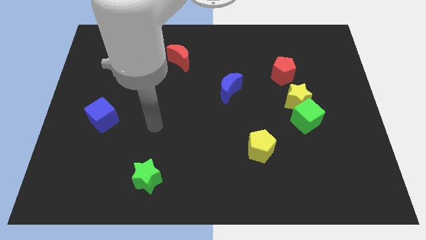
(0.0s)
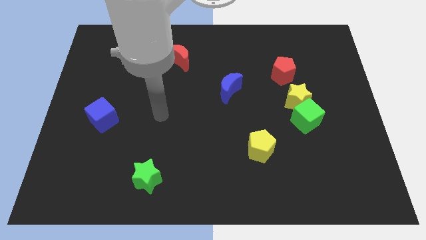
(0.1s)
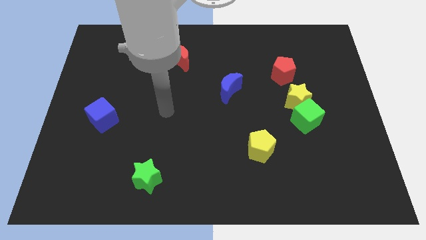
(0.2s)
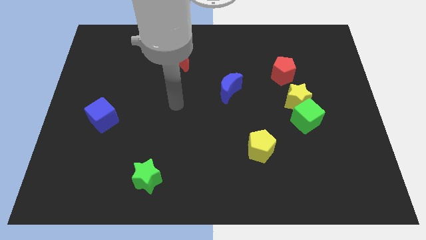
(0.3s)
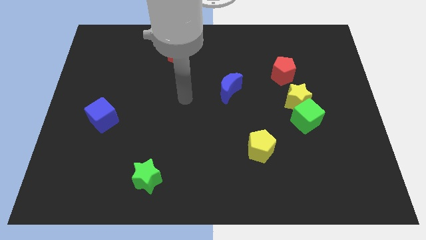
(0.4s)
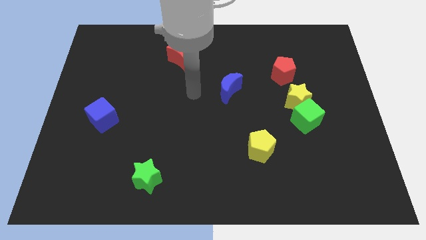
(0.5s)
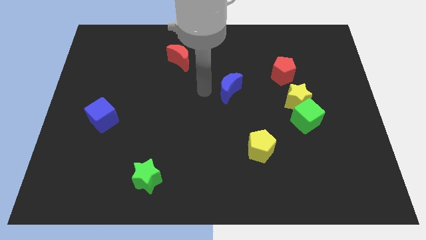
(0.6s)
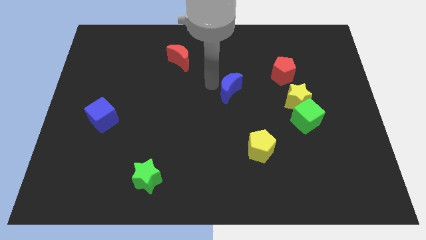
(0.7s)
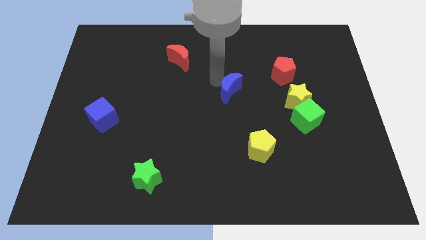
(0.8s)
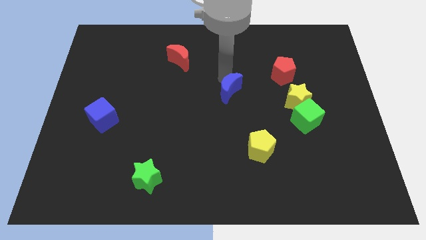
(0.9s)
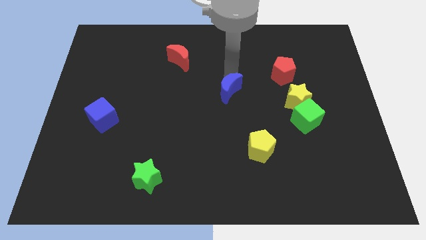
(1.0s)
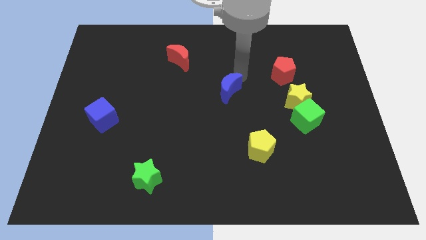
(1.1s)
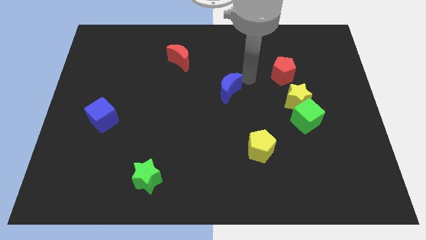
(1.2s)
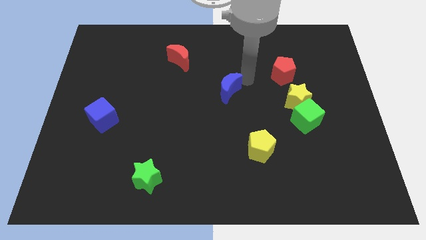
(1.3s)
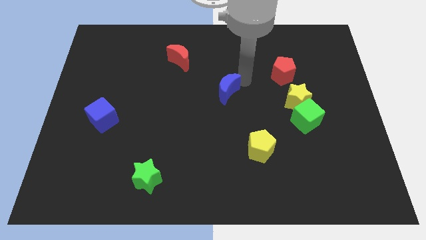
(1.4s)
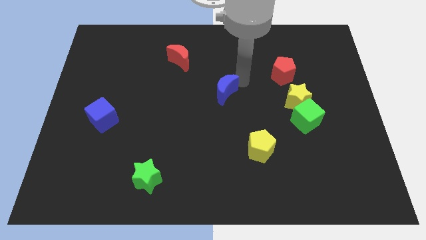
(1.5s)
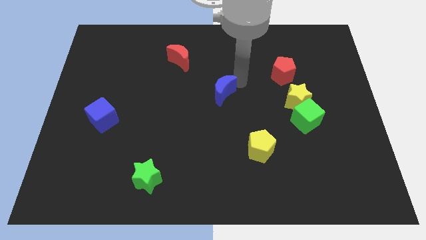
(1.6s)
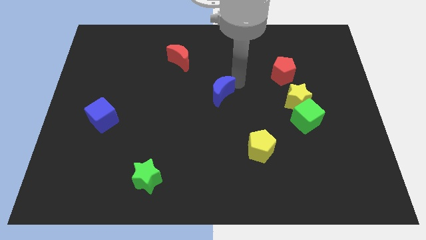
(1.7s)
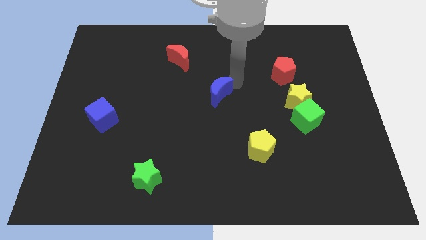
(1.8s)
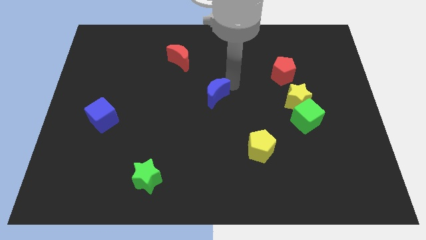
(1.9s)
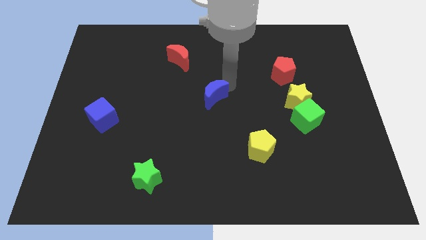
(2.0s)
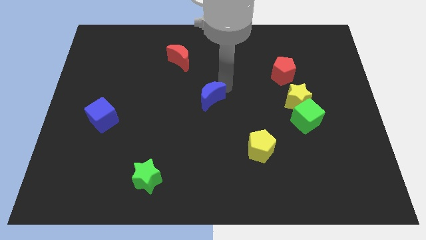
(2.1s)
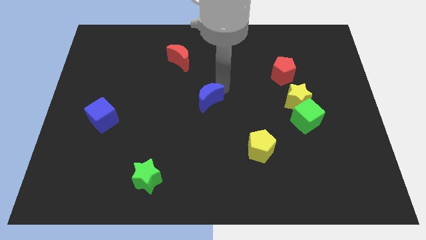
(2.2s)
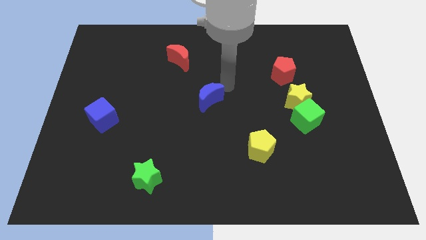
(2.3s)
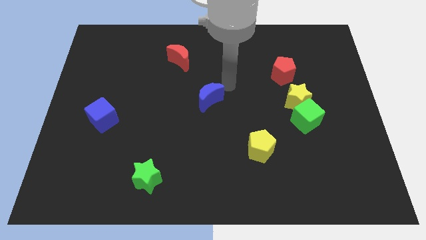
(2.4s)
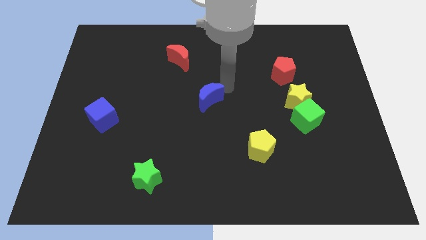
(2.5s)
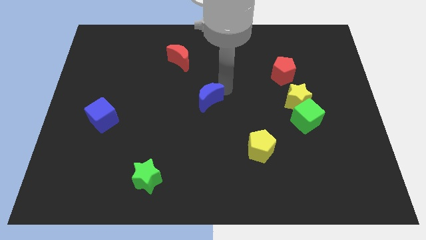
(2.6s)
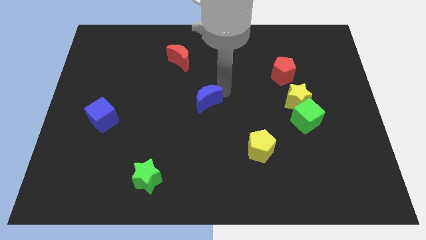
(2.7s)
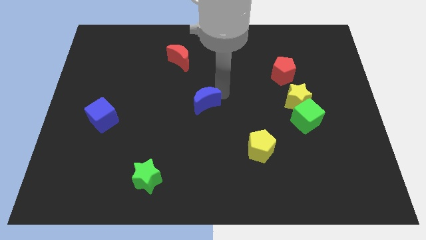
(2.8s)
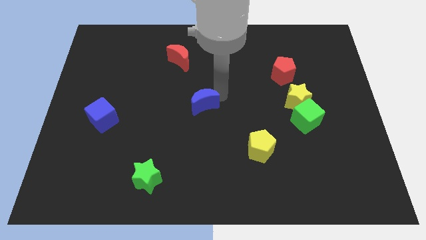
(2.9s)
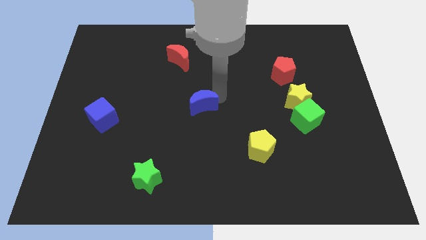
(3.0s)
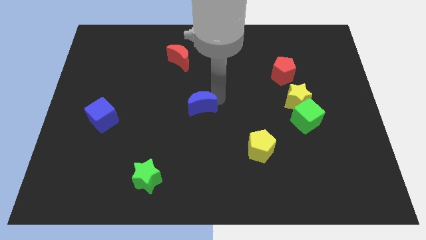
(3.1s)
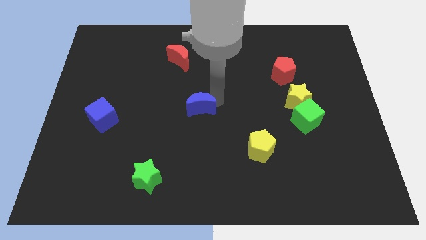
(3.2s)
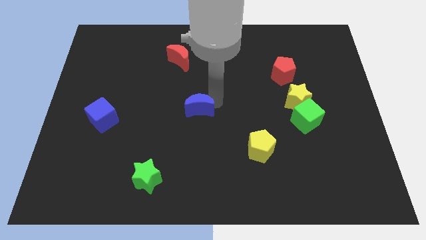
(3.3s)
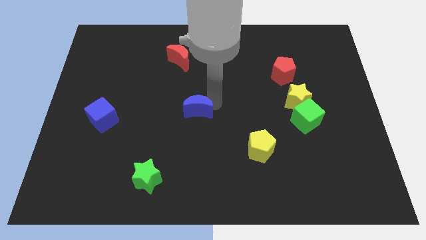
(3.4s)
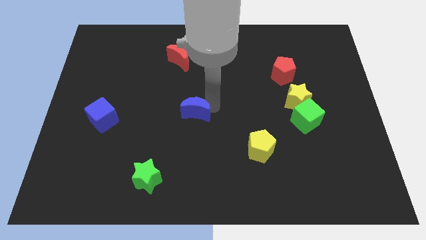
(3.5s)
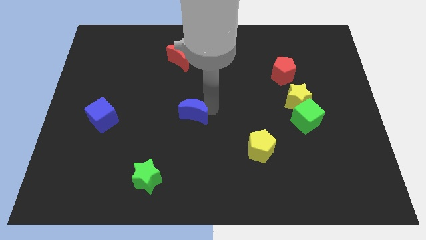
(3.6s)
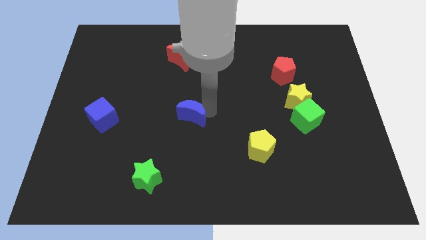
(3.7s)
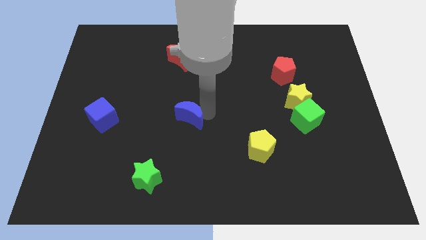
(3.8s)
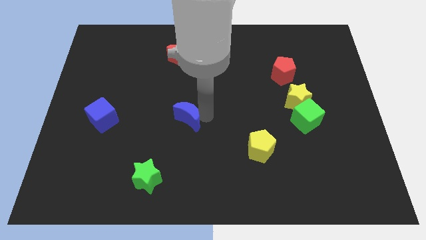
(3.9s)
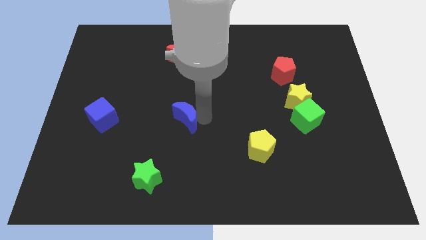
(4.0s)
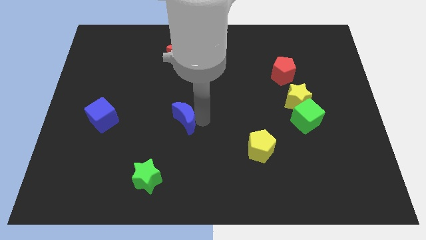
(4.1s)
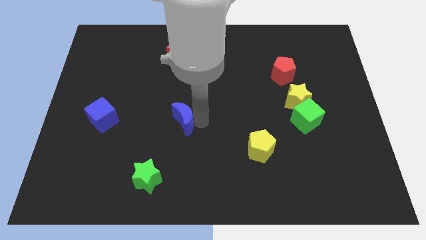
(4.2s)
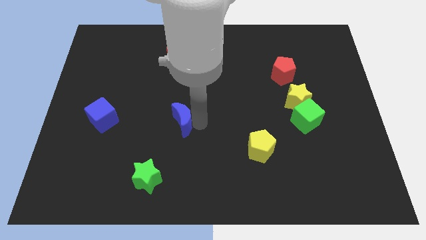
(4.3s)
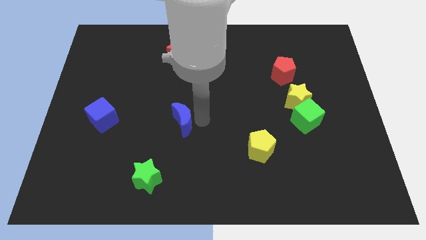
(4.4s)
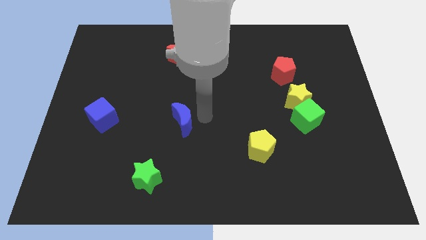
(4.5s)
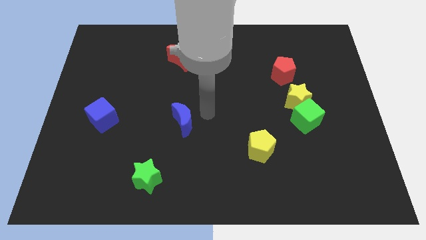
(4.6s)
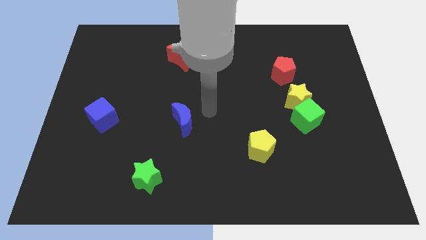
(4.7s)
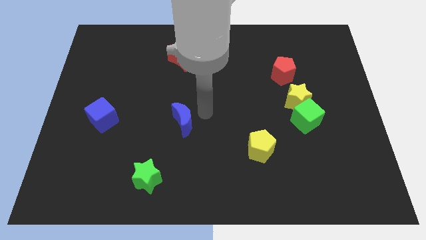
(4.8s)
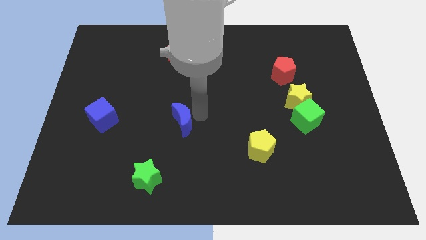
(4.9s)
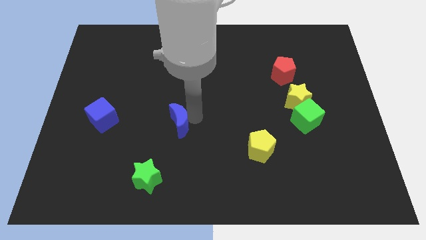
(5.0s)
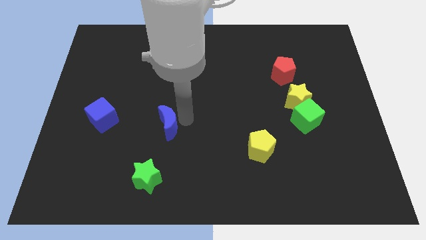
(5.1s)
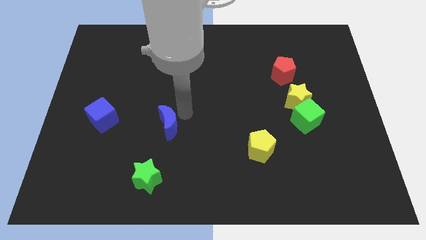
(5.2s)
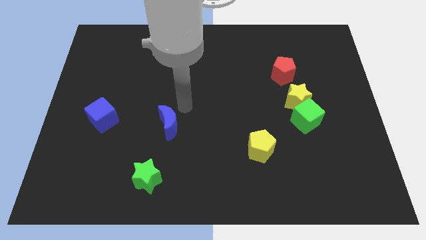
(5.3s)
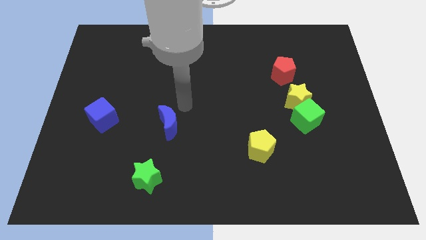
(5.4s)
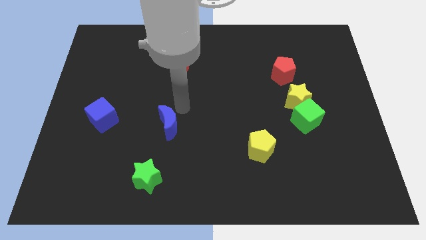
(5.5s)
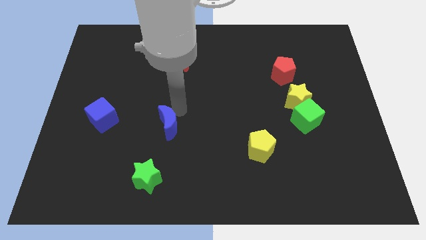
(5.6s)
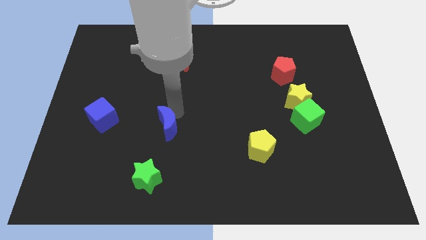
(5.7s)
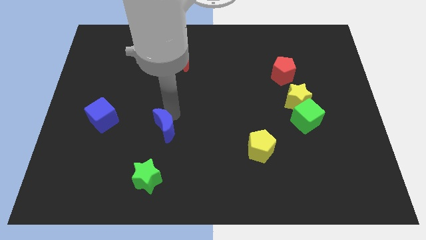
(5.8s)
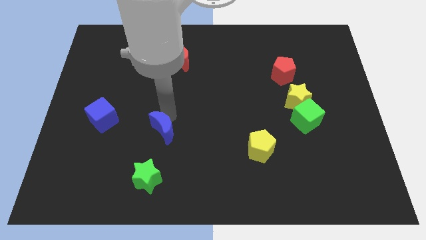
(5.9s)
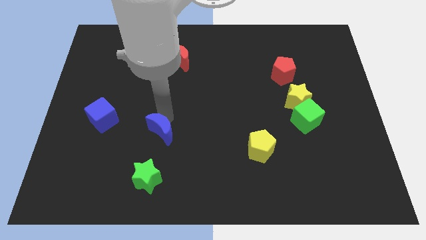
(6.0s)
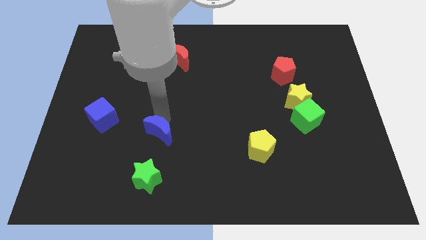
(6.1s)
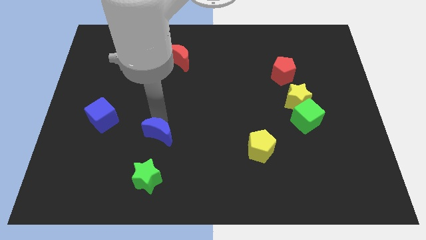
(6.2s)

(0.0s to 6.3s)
slide the blue moon downwards and then to the left

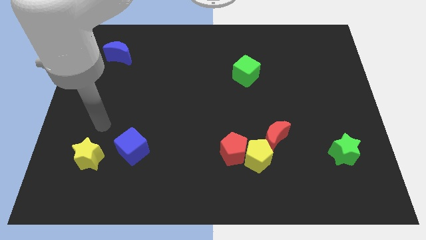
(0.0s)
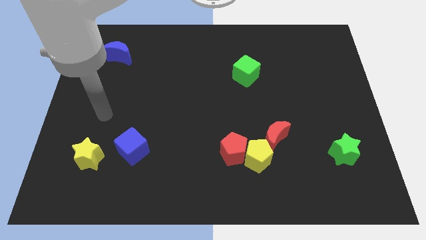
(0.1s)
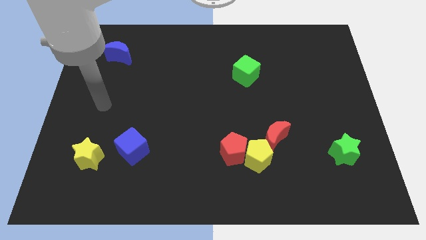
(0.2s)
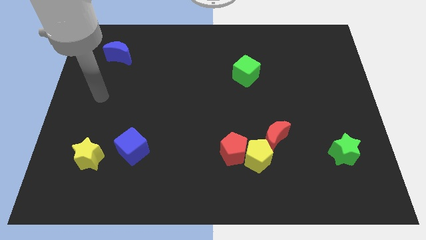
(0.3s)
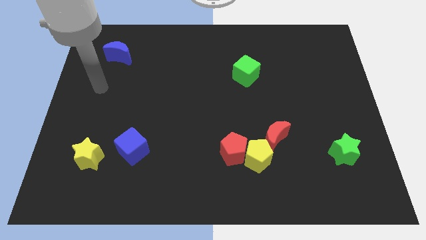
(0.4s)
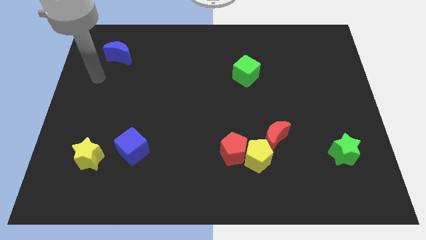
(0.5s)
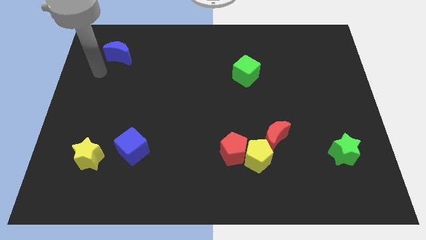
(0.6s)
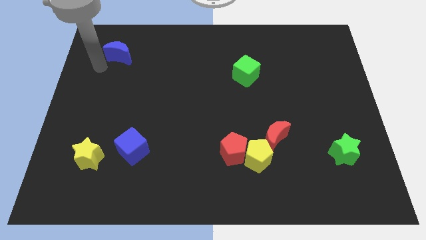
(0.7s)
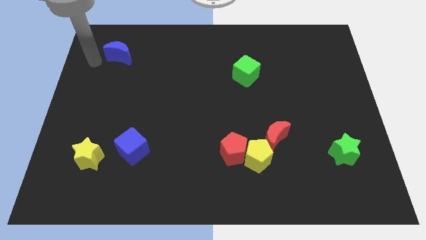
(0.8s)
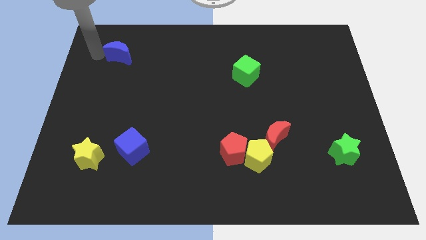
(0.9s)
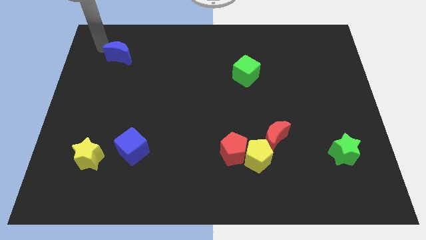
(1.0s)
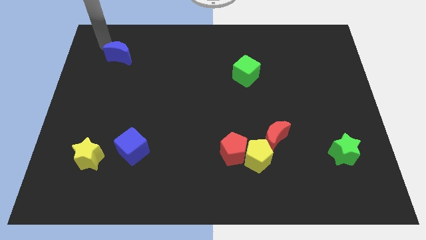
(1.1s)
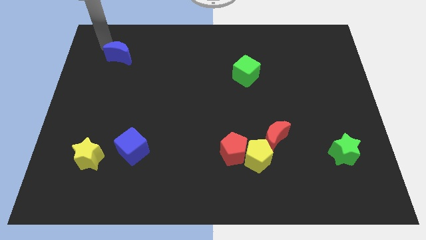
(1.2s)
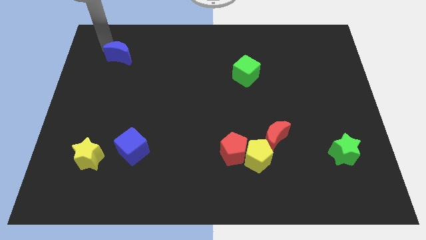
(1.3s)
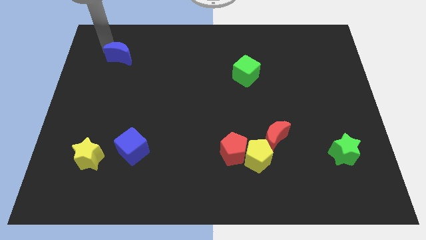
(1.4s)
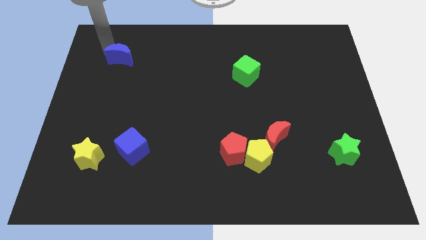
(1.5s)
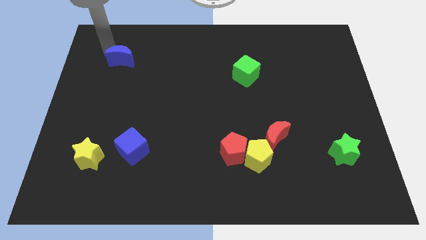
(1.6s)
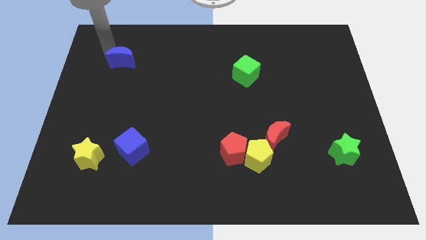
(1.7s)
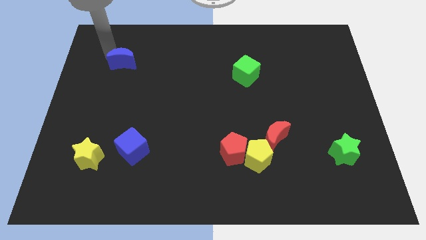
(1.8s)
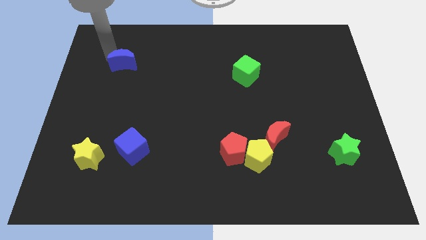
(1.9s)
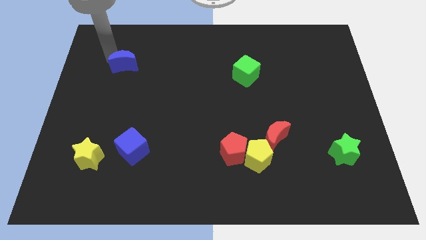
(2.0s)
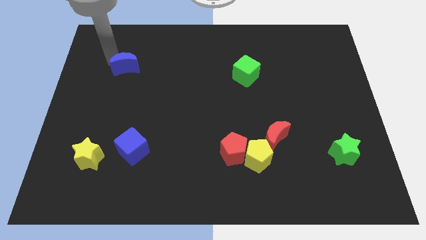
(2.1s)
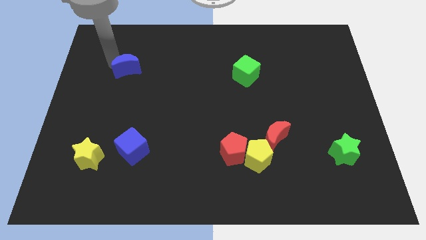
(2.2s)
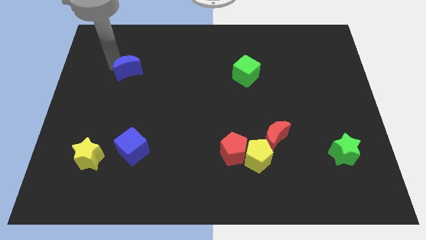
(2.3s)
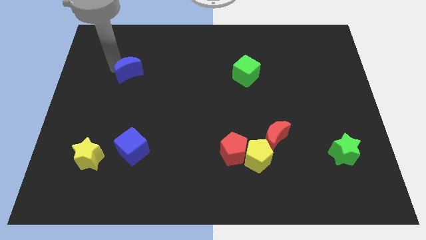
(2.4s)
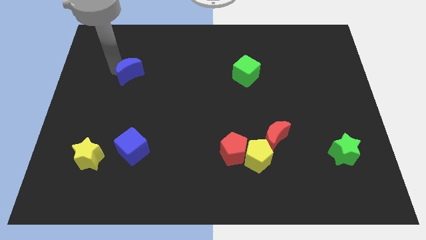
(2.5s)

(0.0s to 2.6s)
move the blue moon down and to the right diagonally a little
